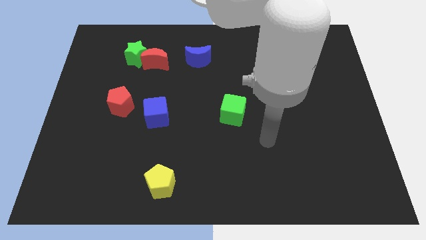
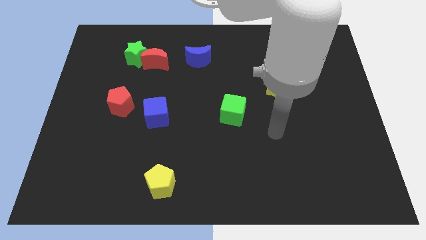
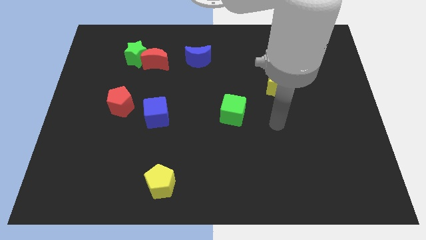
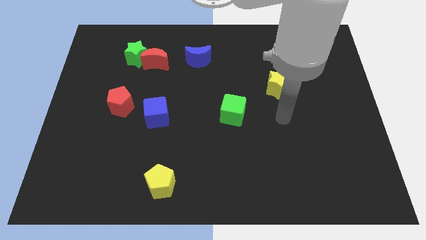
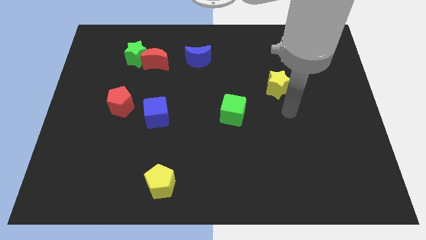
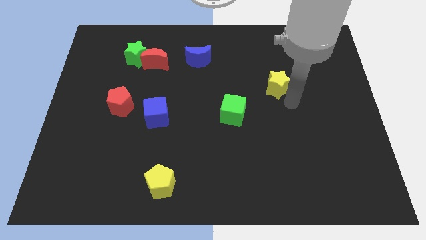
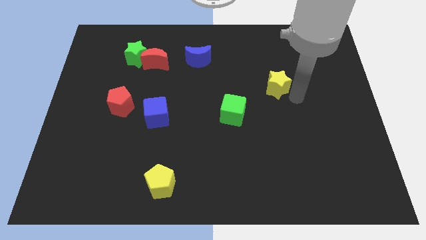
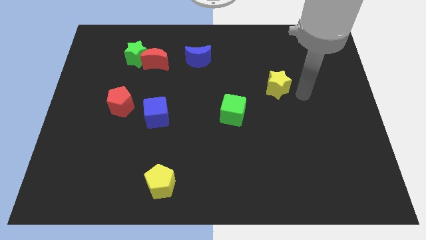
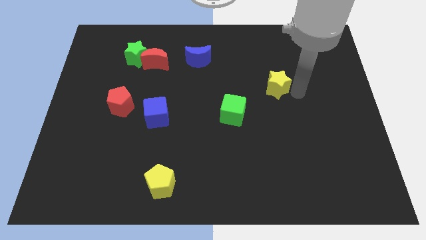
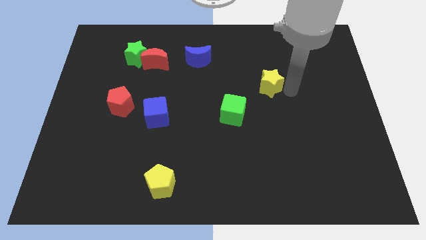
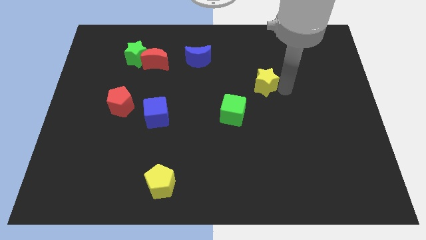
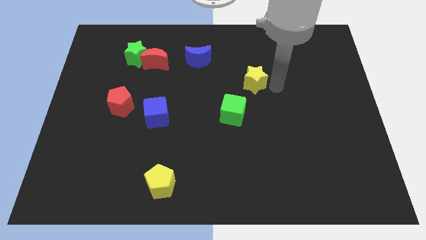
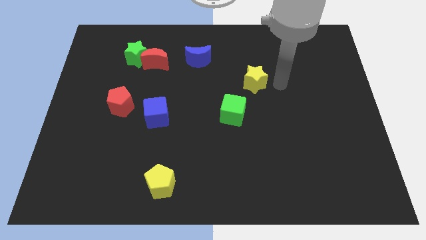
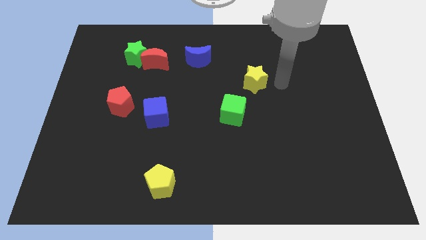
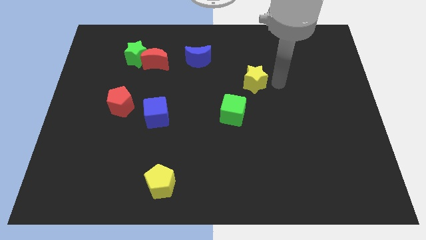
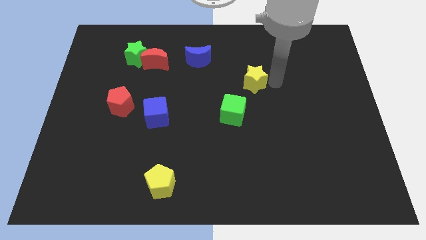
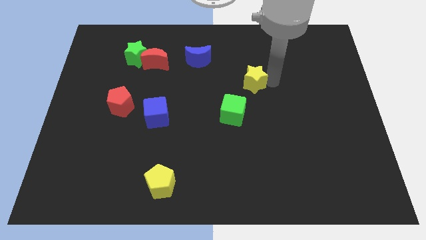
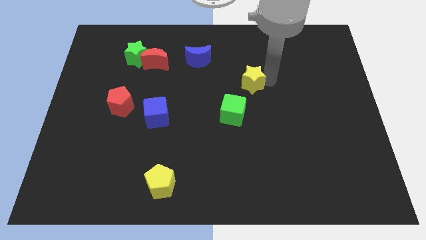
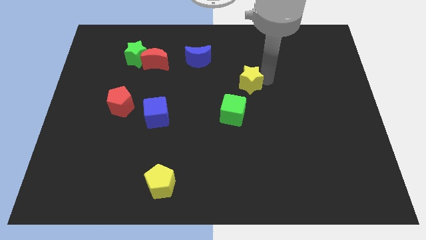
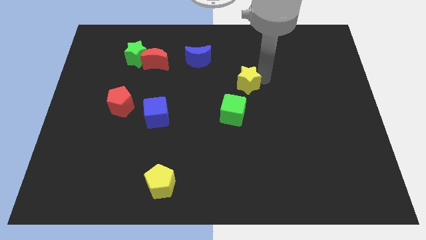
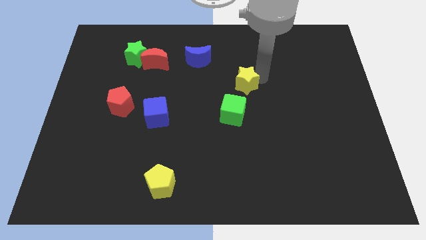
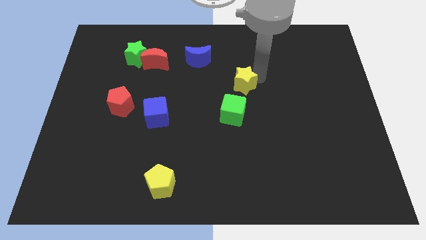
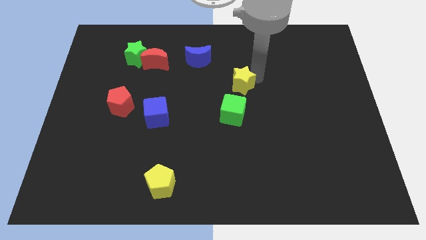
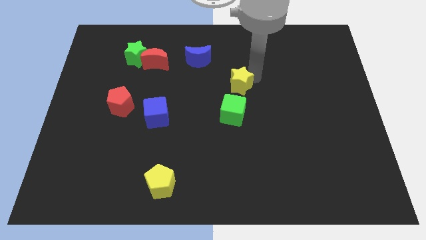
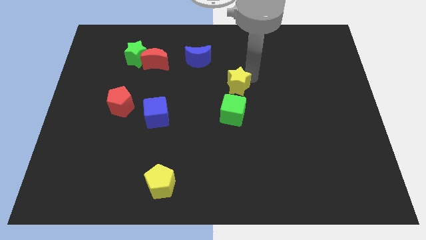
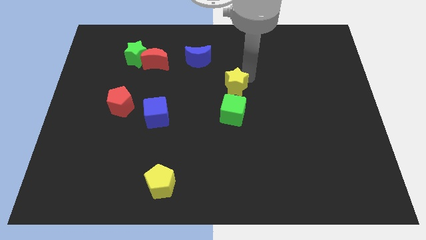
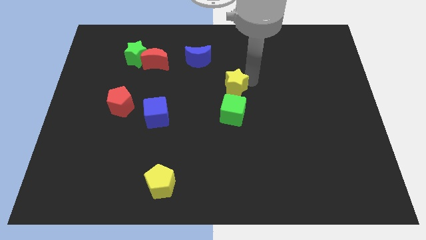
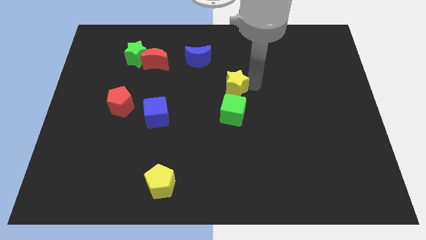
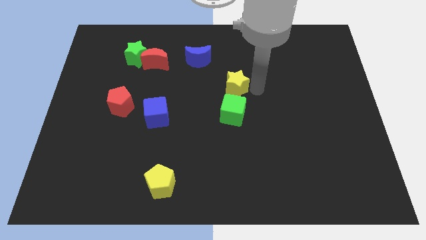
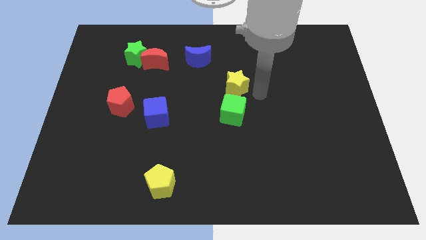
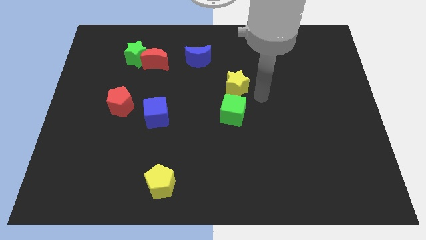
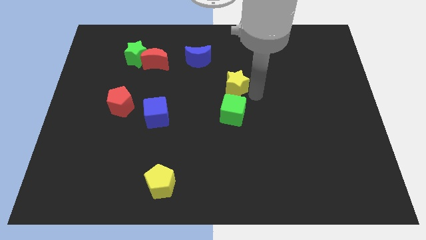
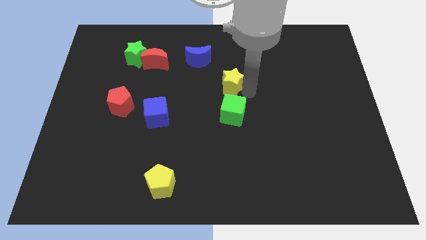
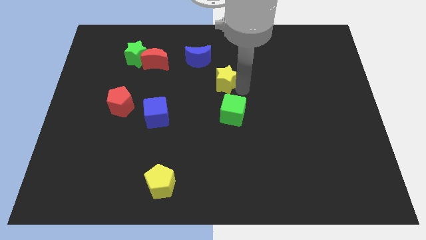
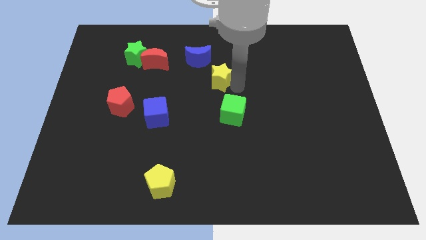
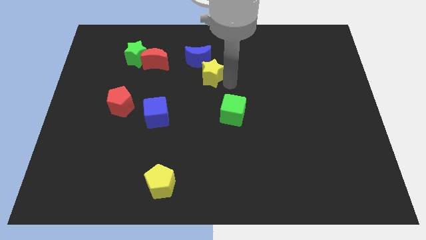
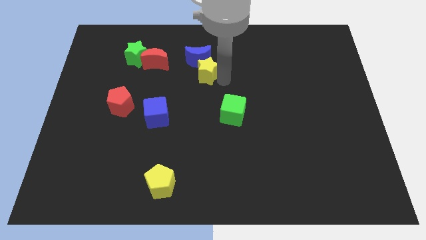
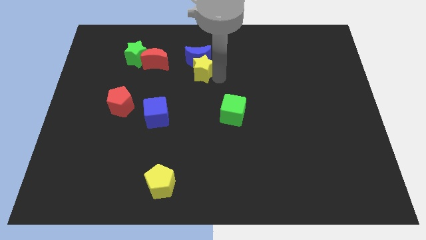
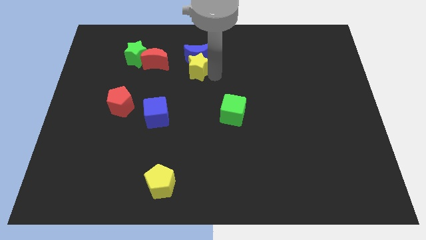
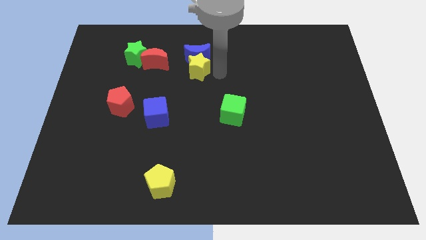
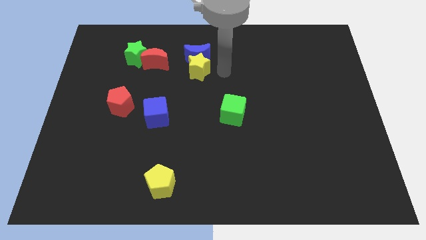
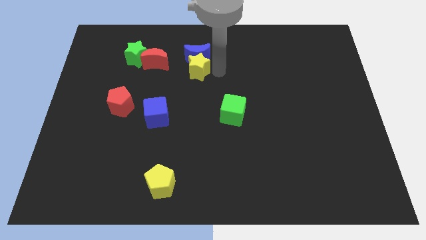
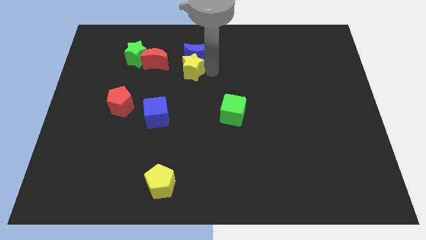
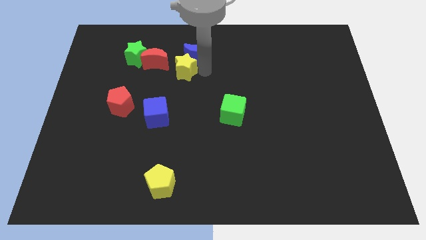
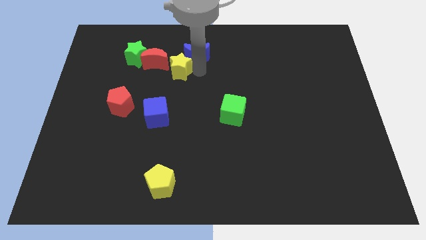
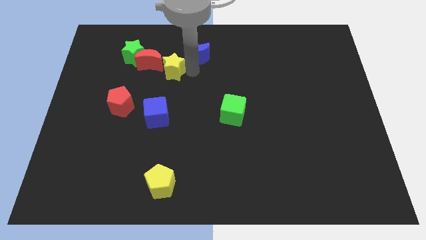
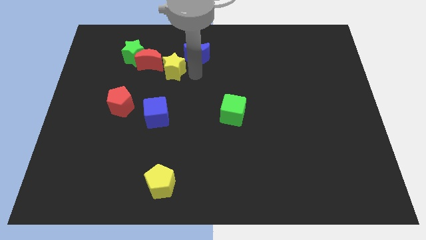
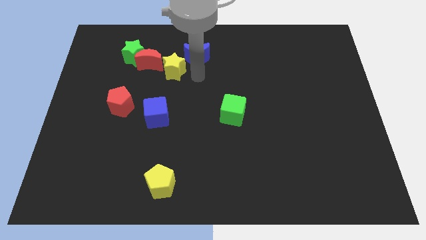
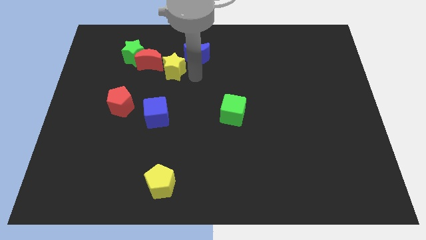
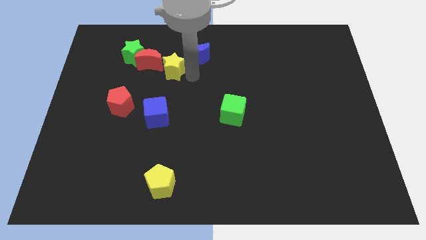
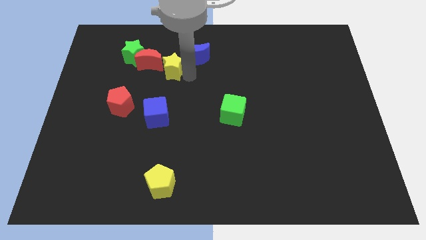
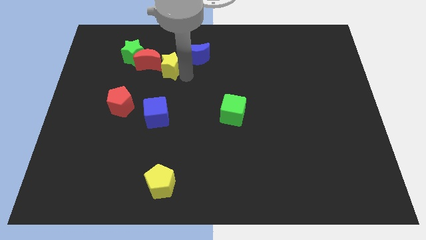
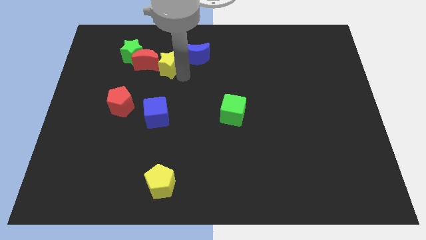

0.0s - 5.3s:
slide the yellow star next to the red moon

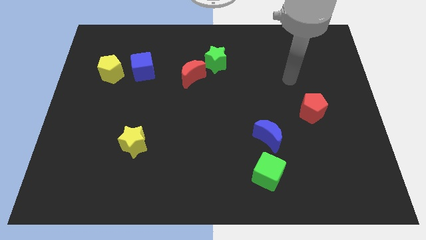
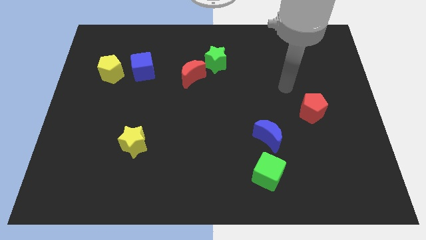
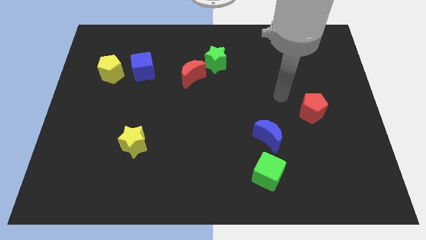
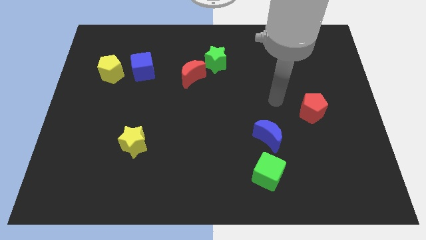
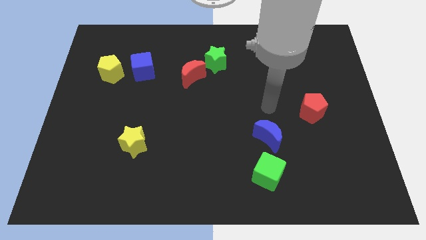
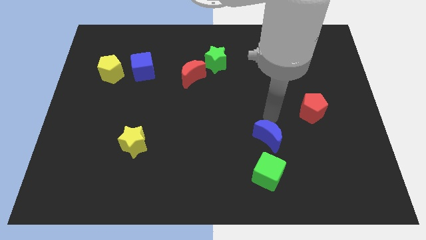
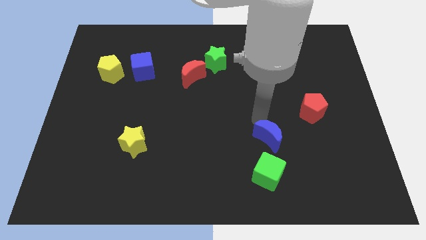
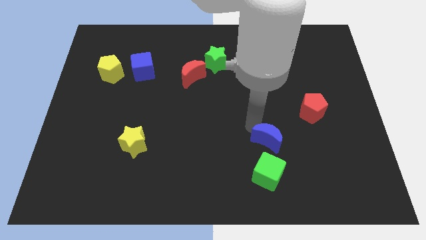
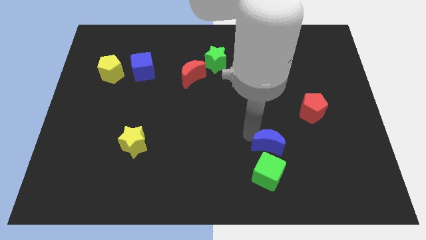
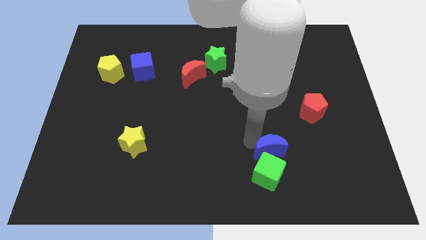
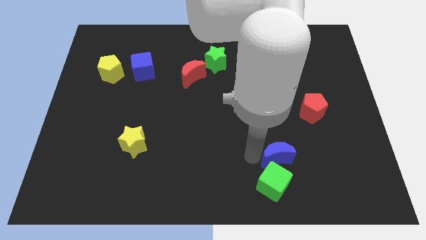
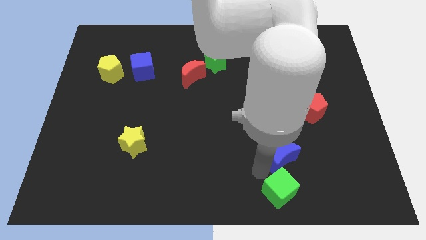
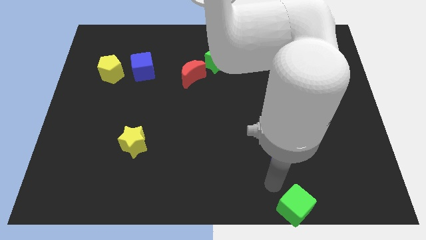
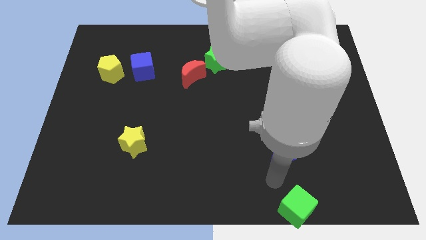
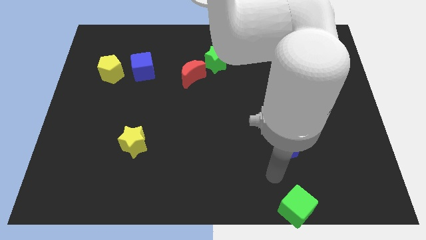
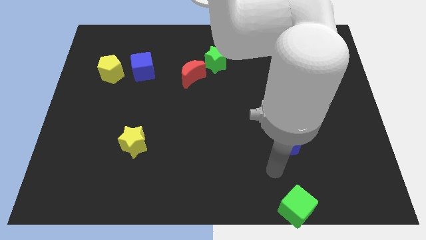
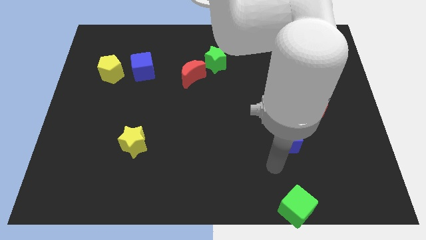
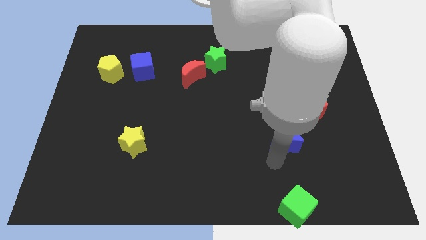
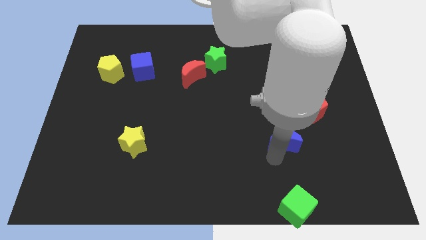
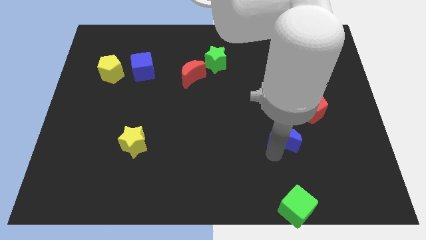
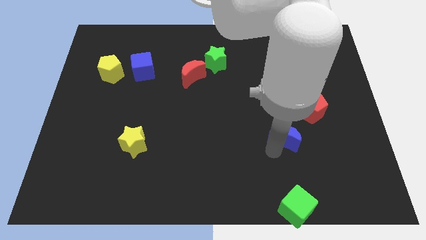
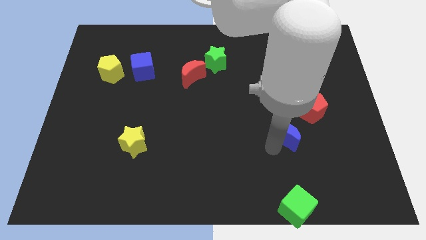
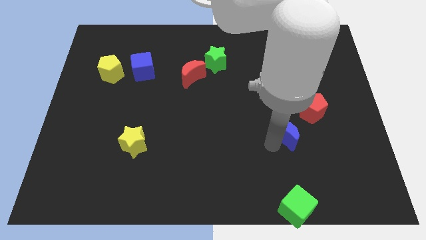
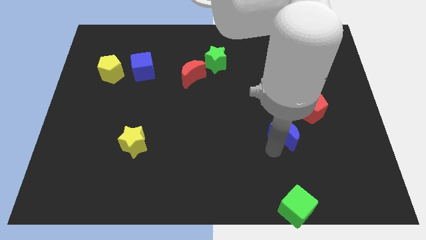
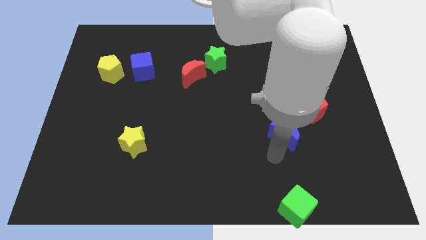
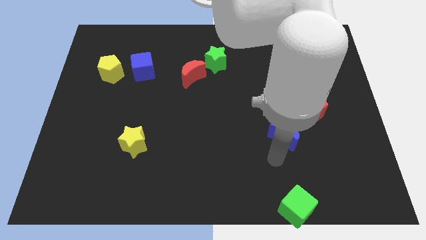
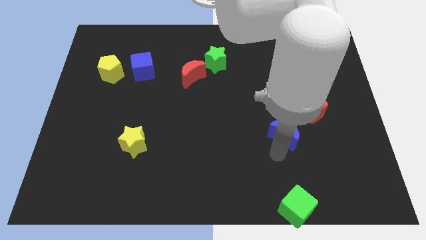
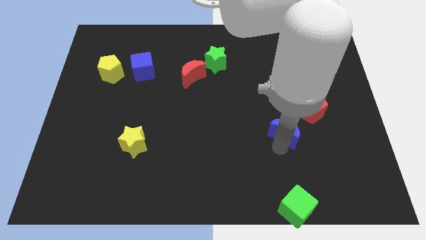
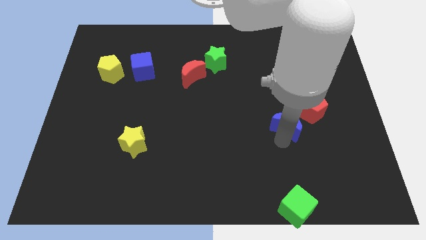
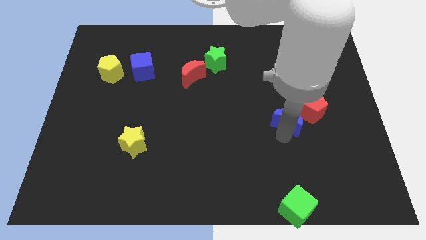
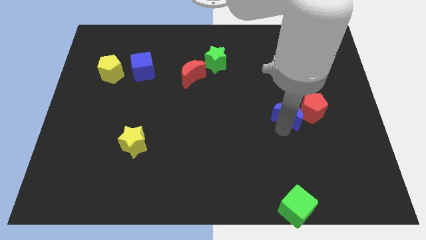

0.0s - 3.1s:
slide the blue moon close to the red pentagon
